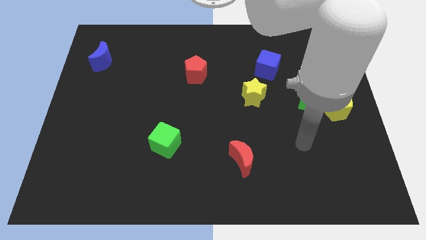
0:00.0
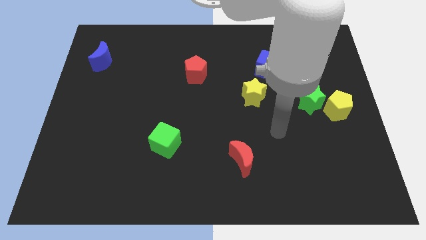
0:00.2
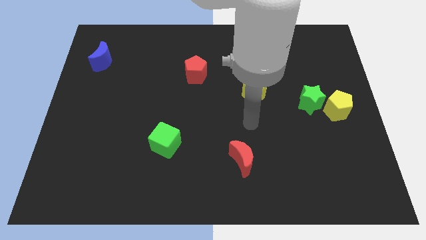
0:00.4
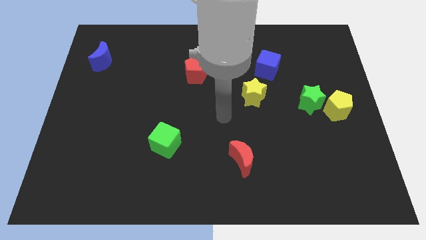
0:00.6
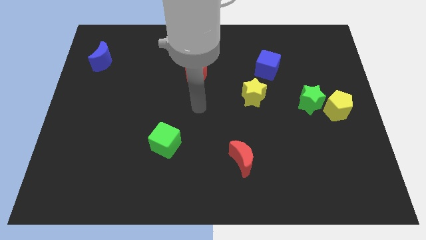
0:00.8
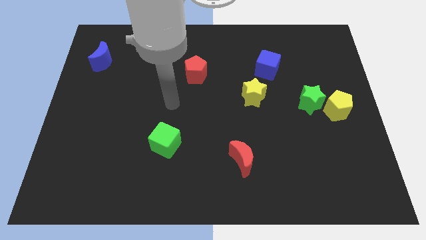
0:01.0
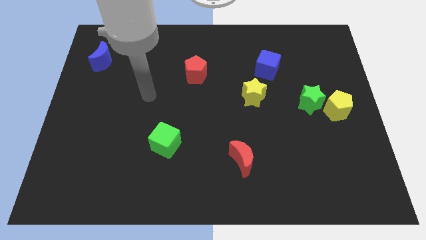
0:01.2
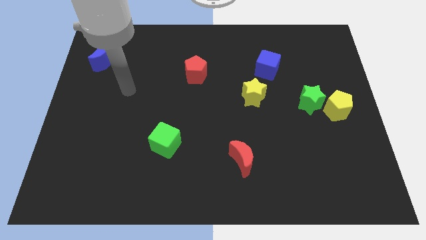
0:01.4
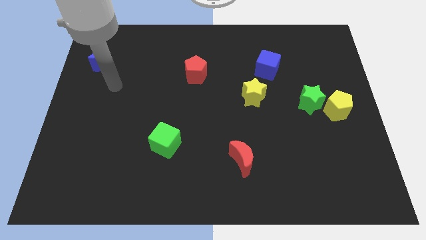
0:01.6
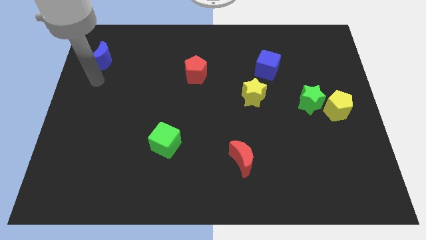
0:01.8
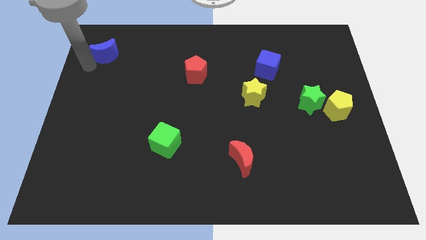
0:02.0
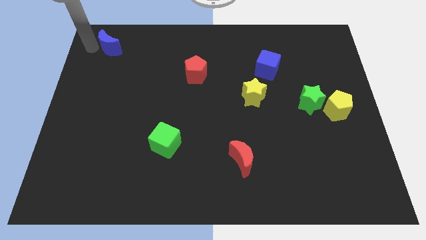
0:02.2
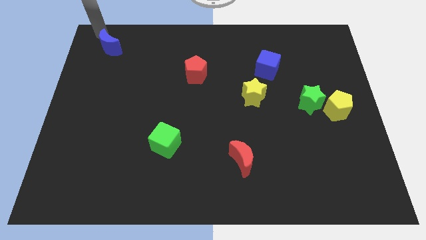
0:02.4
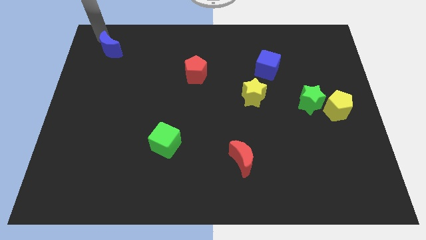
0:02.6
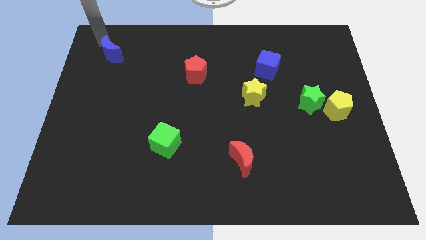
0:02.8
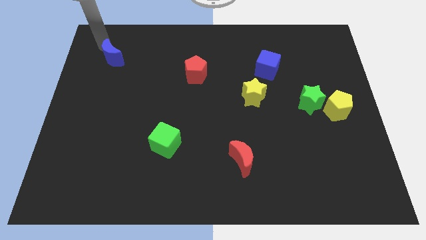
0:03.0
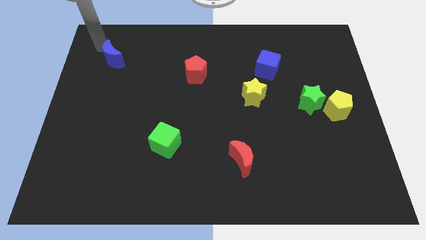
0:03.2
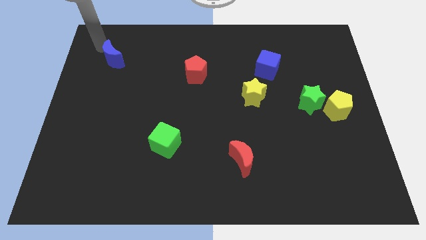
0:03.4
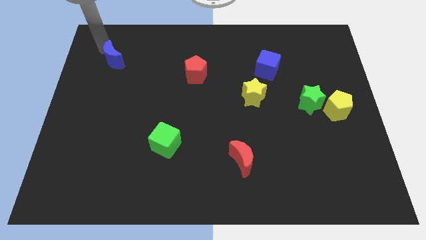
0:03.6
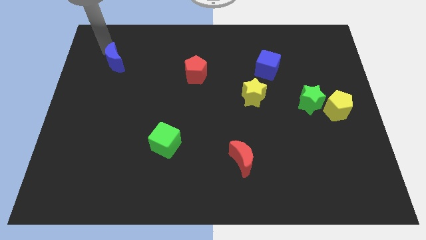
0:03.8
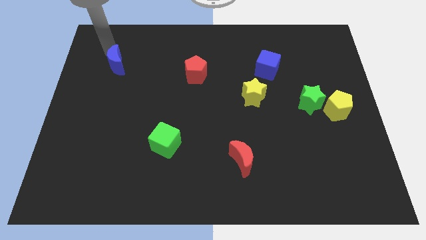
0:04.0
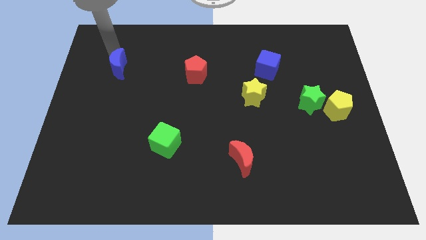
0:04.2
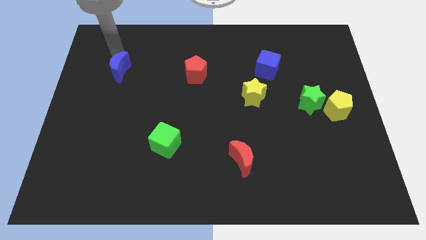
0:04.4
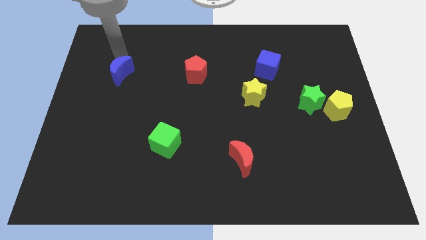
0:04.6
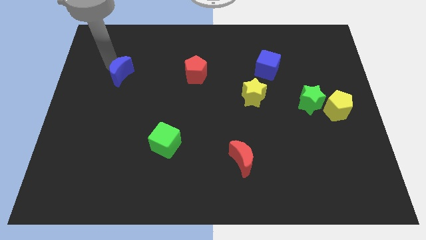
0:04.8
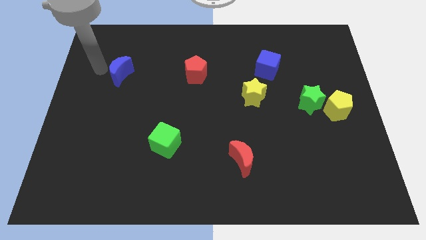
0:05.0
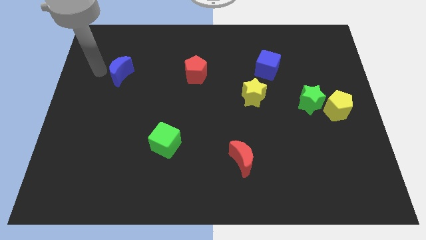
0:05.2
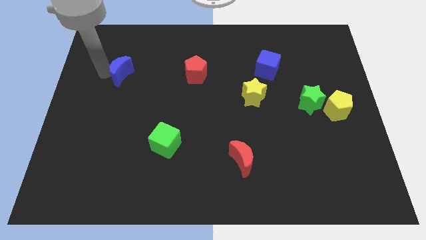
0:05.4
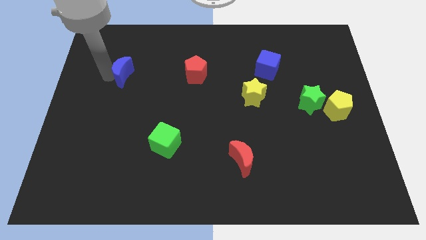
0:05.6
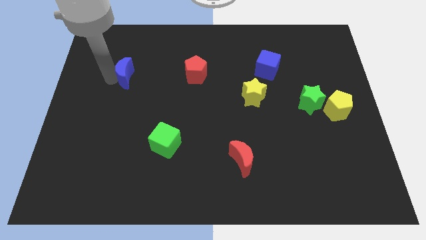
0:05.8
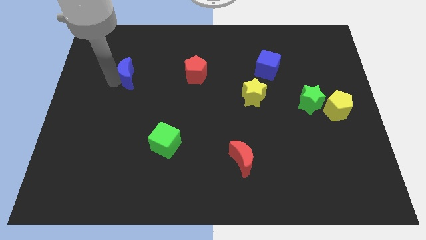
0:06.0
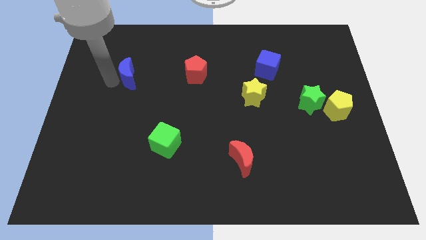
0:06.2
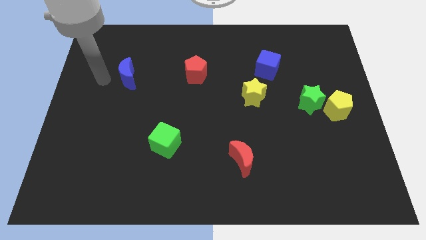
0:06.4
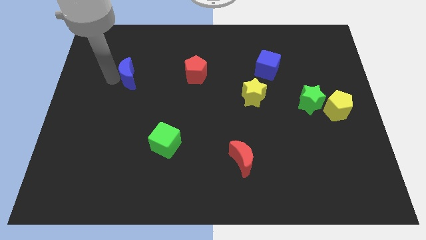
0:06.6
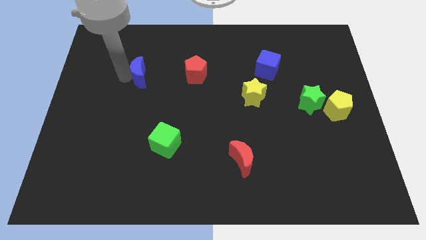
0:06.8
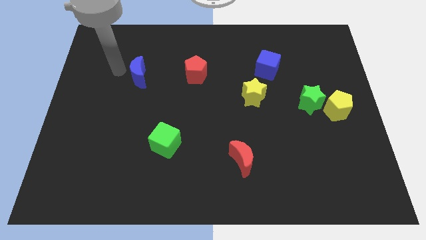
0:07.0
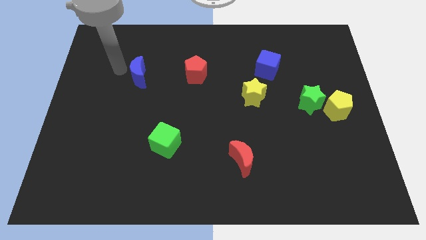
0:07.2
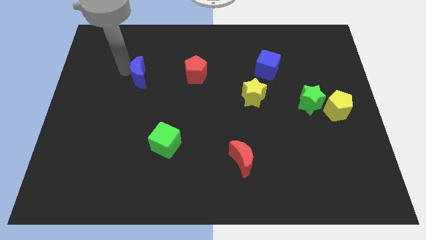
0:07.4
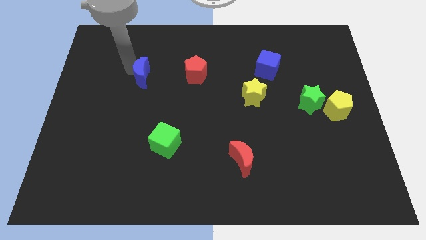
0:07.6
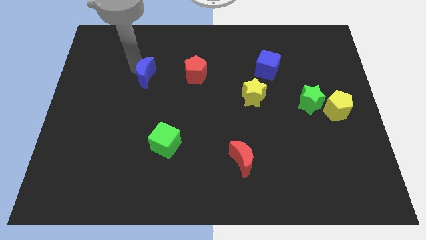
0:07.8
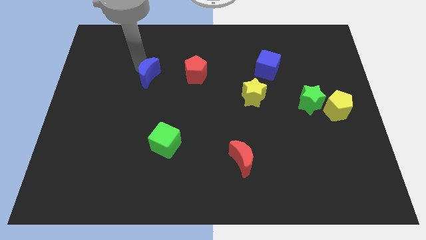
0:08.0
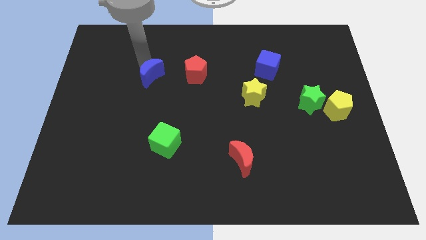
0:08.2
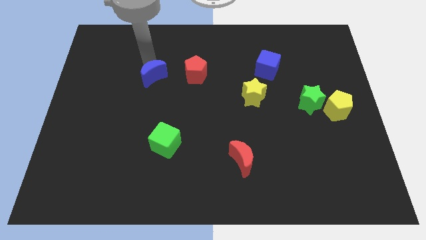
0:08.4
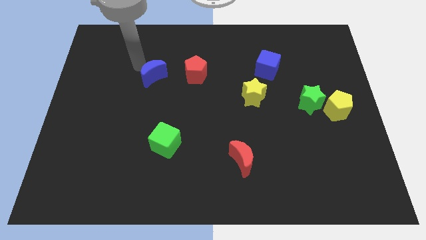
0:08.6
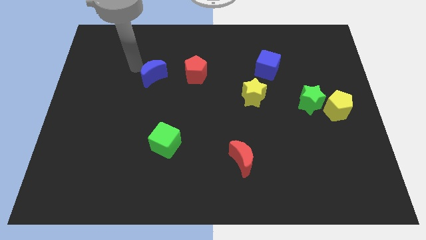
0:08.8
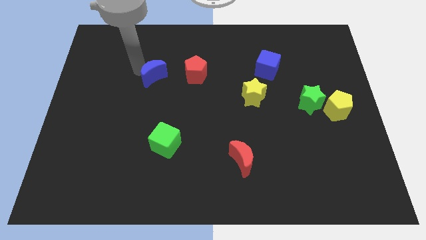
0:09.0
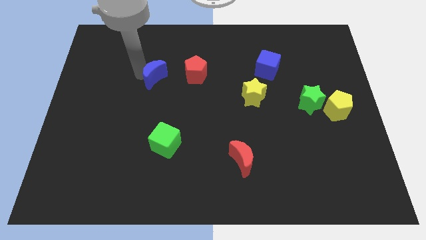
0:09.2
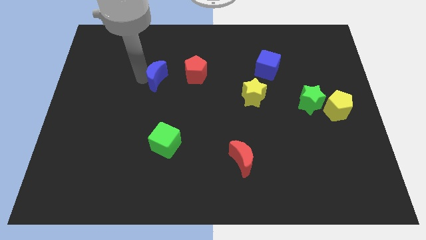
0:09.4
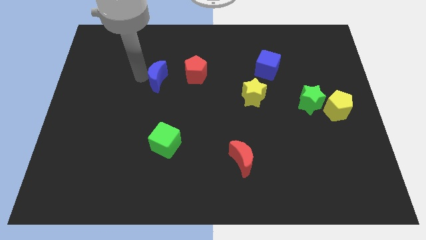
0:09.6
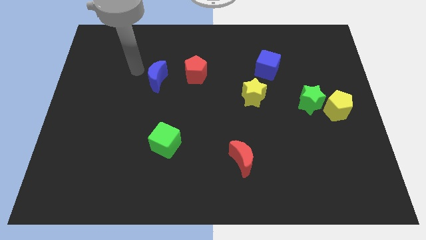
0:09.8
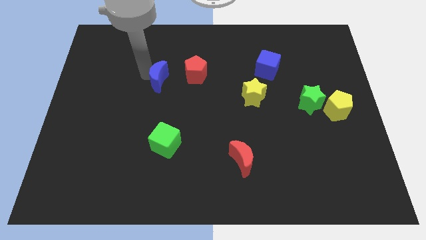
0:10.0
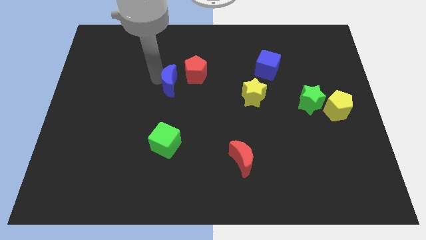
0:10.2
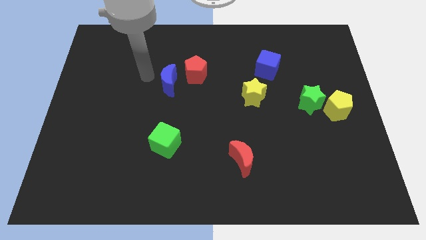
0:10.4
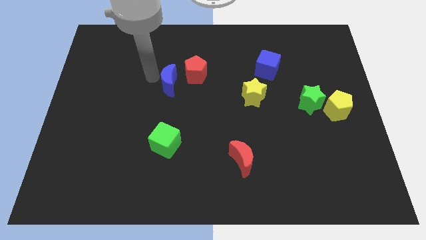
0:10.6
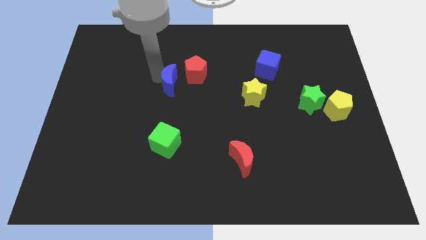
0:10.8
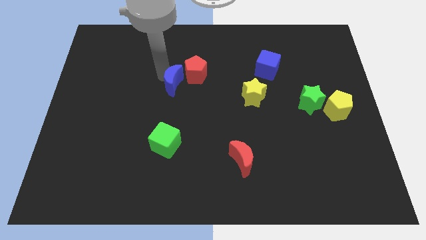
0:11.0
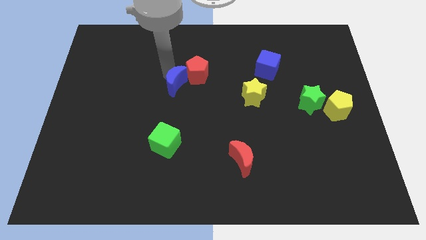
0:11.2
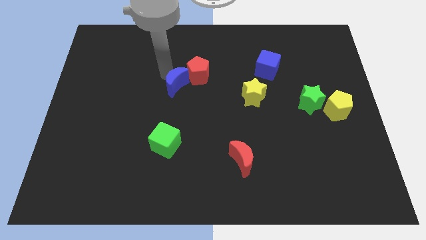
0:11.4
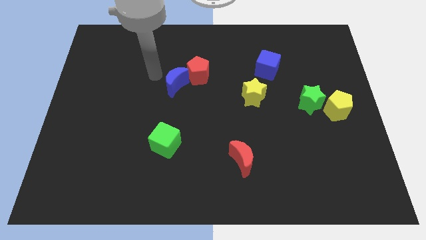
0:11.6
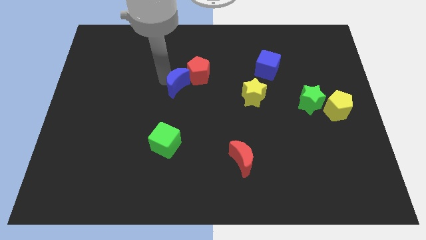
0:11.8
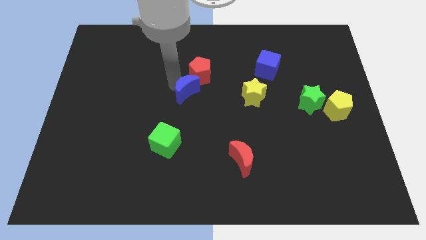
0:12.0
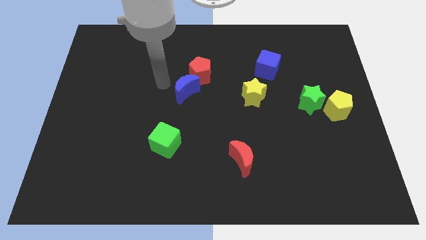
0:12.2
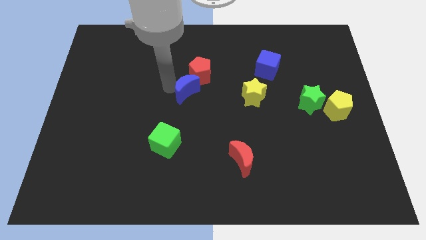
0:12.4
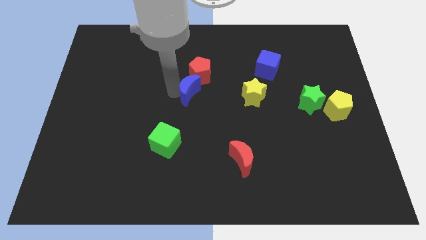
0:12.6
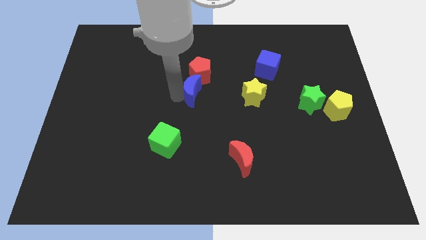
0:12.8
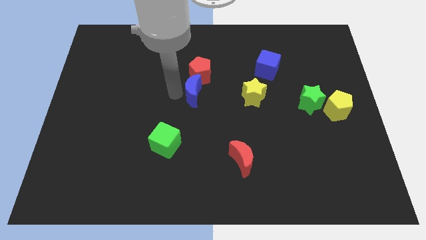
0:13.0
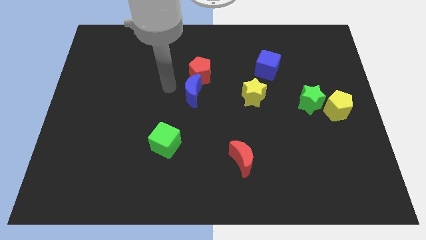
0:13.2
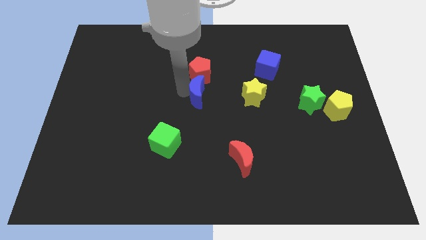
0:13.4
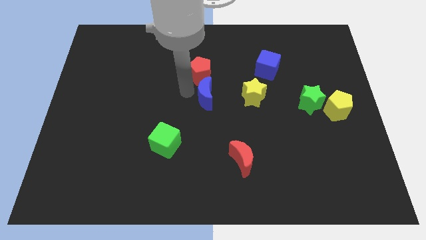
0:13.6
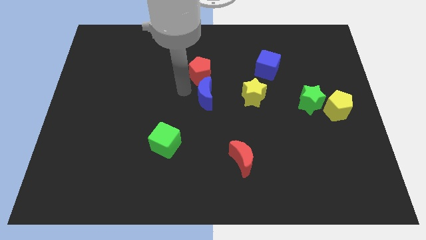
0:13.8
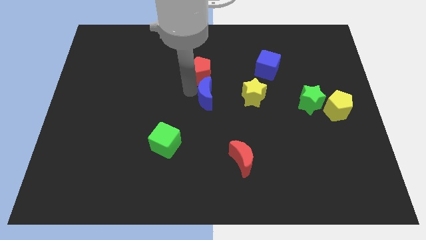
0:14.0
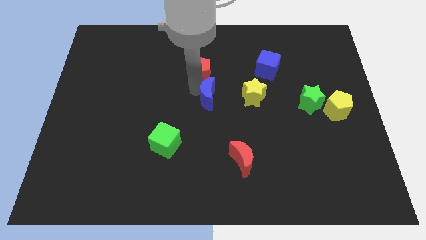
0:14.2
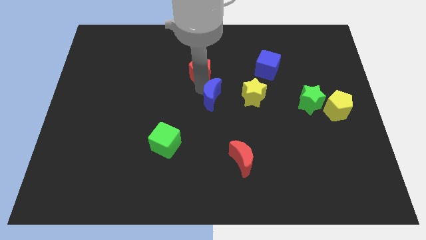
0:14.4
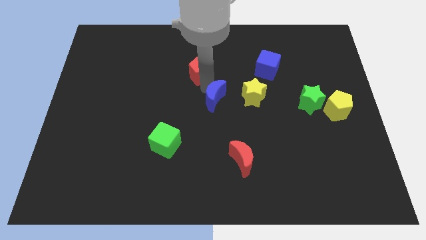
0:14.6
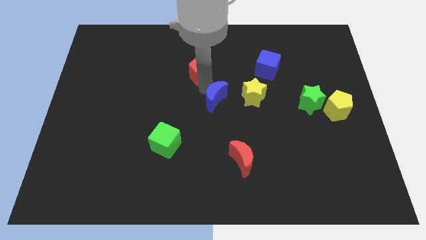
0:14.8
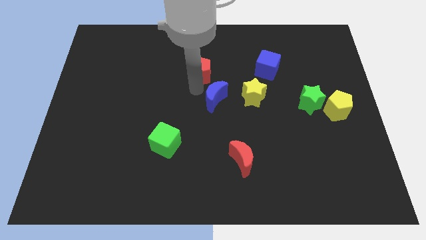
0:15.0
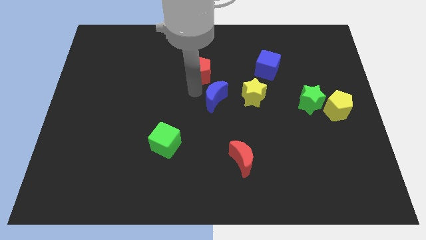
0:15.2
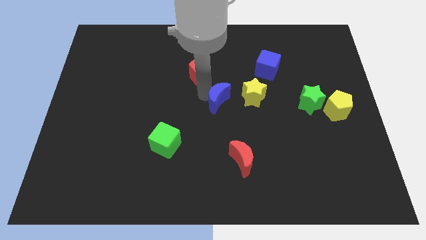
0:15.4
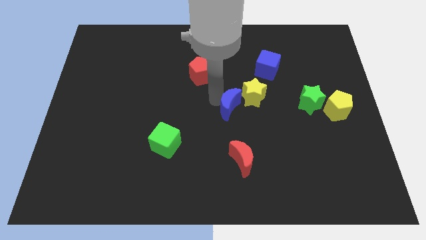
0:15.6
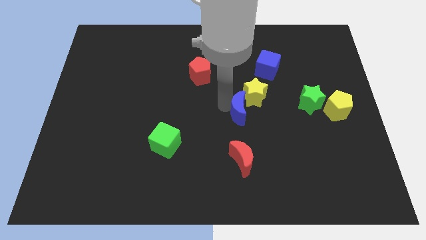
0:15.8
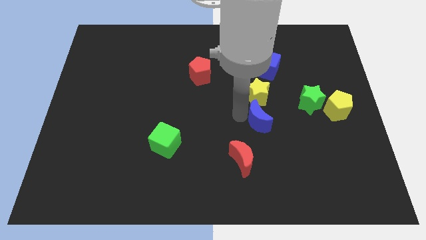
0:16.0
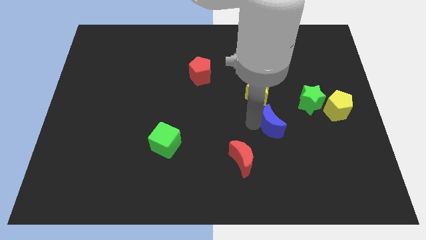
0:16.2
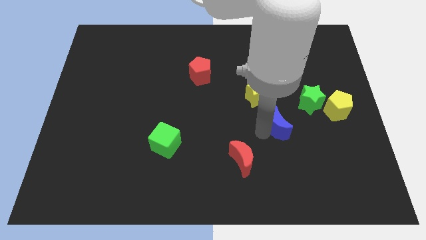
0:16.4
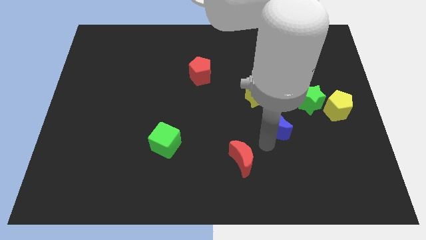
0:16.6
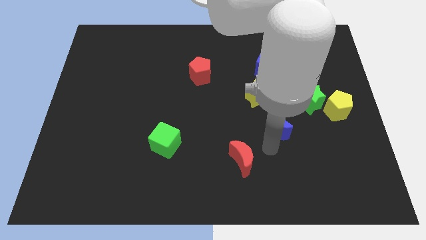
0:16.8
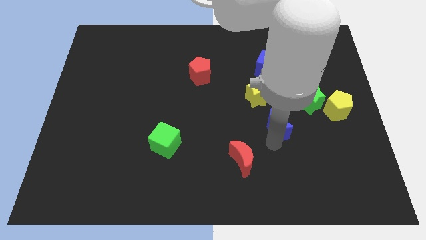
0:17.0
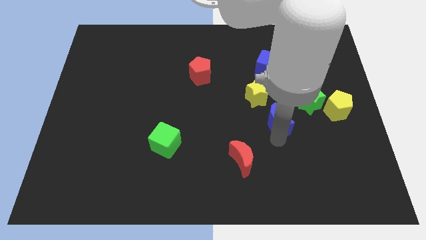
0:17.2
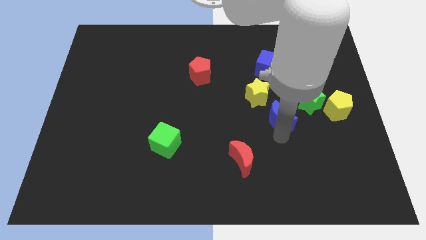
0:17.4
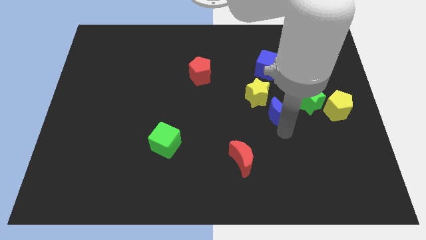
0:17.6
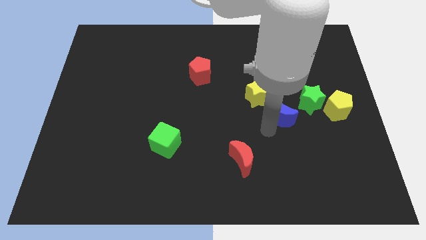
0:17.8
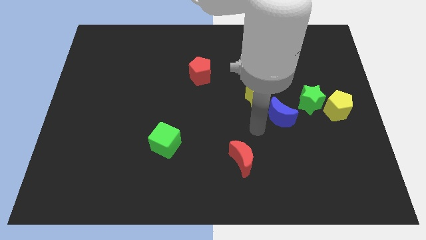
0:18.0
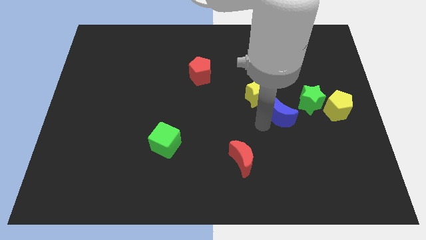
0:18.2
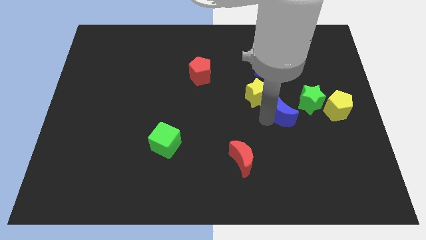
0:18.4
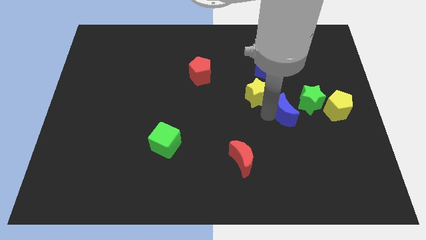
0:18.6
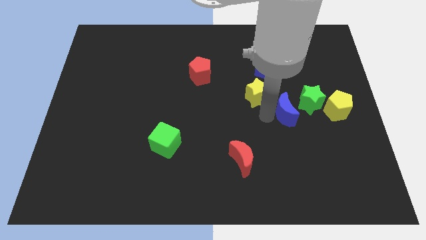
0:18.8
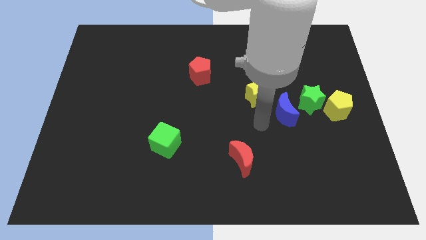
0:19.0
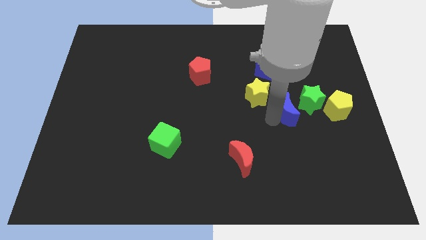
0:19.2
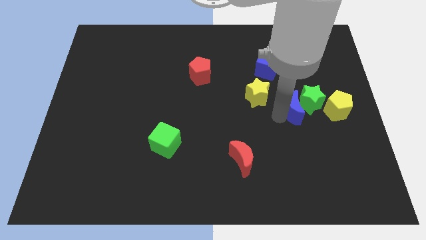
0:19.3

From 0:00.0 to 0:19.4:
move the blue moon to the green star
